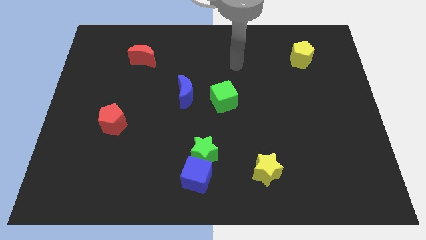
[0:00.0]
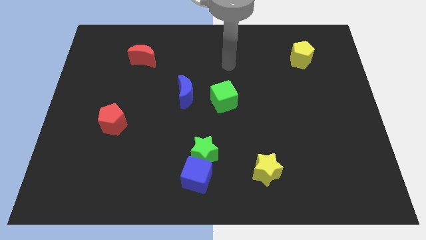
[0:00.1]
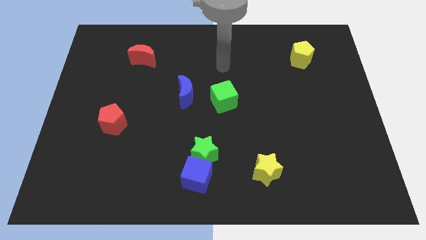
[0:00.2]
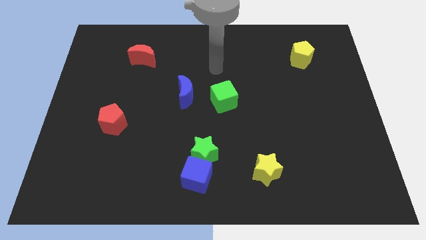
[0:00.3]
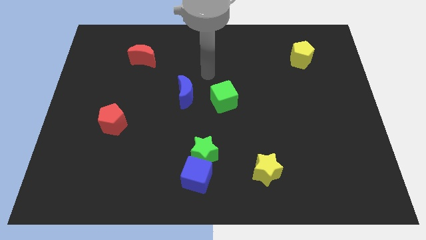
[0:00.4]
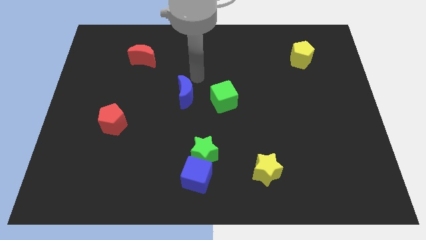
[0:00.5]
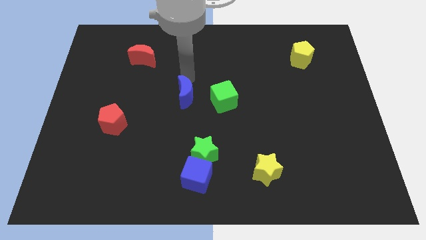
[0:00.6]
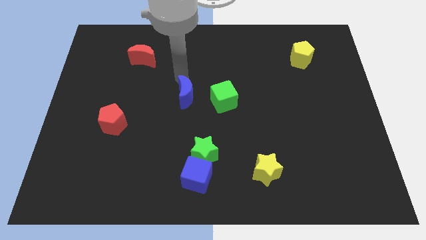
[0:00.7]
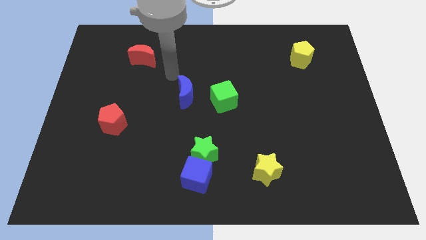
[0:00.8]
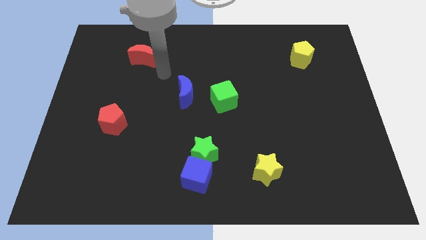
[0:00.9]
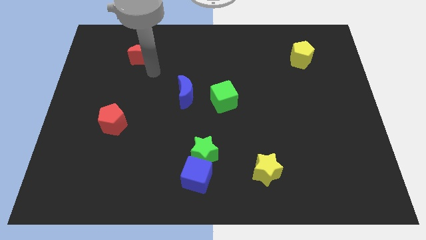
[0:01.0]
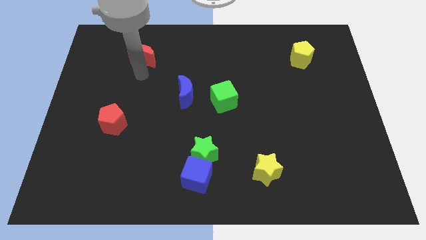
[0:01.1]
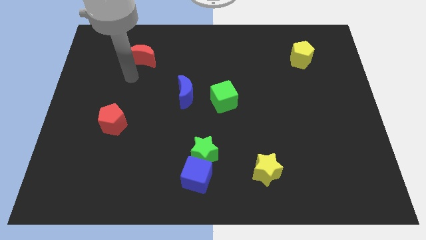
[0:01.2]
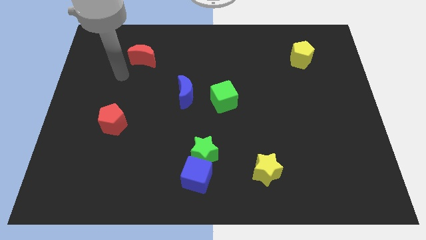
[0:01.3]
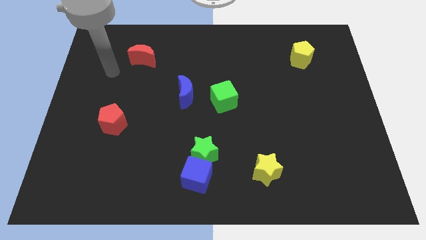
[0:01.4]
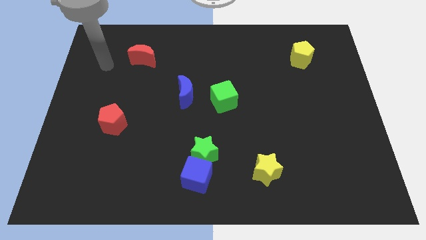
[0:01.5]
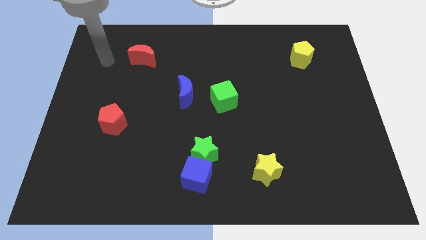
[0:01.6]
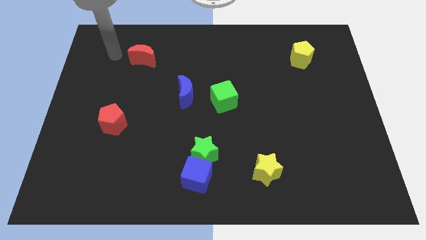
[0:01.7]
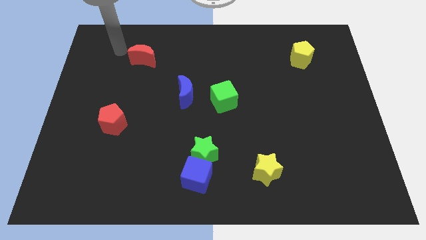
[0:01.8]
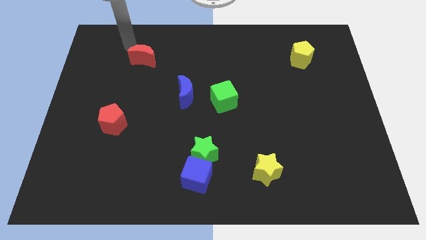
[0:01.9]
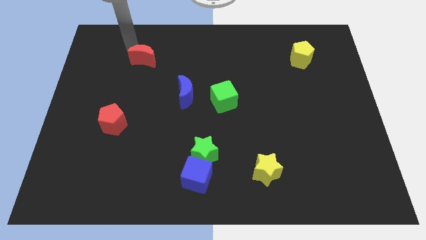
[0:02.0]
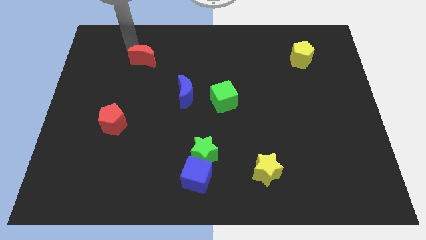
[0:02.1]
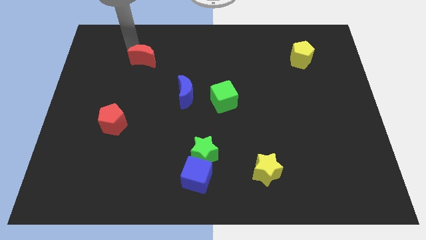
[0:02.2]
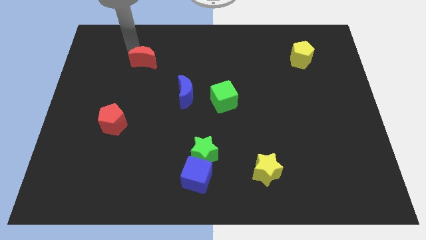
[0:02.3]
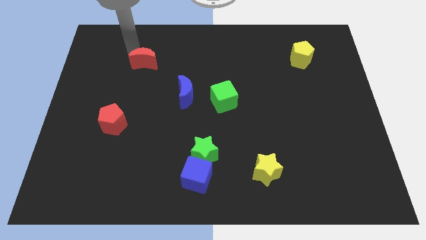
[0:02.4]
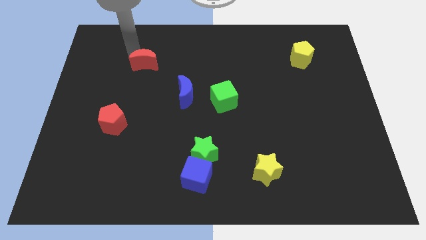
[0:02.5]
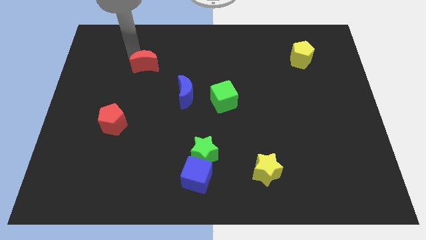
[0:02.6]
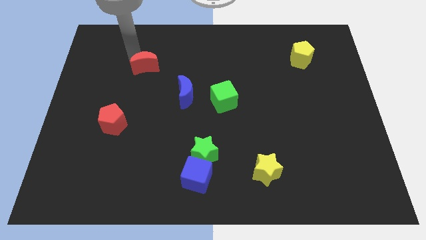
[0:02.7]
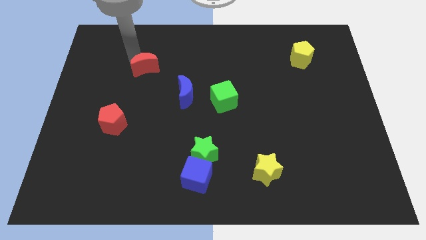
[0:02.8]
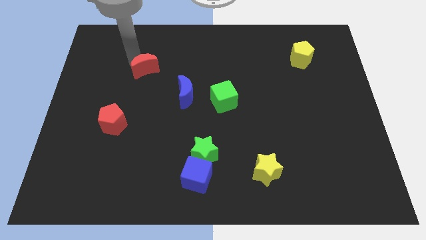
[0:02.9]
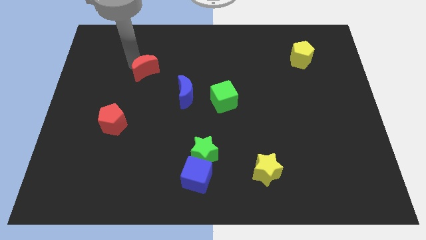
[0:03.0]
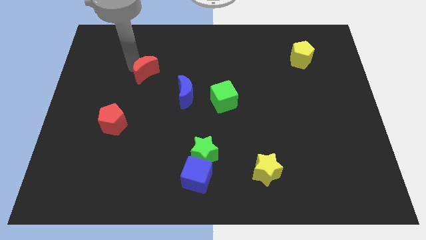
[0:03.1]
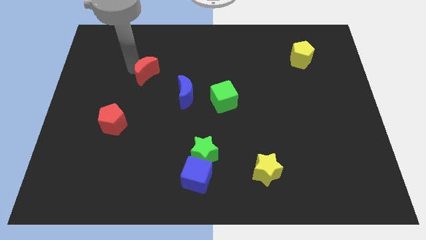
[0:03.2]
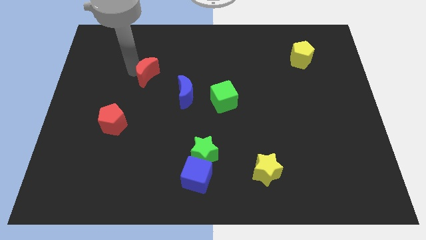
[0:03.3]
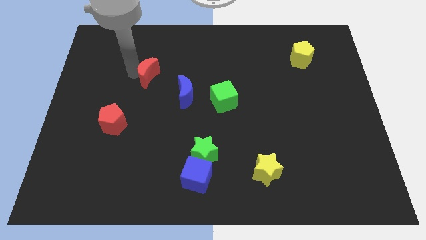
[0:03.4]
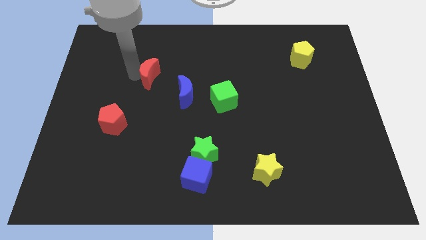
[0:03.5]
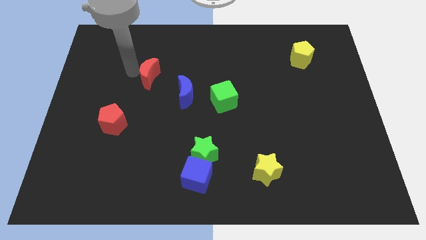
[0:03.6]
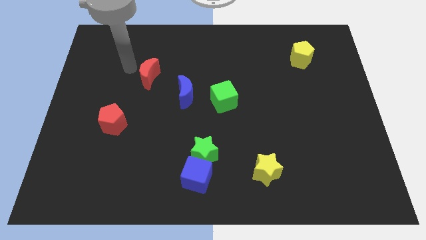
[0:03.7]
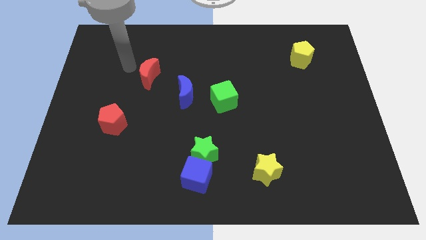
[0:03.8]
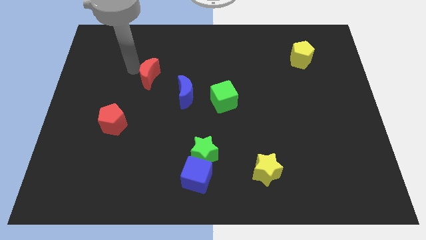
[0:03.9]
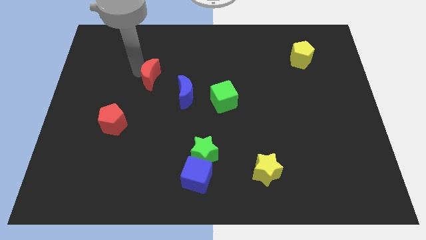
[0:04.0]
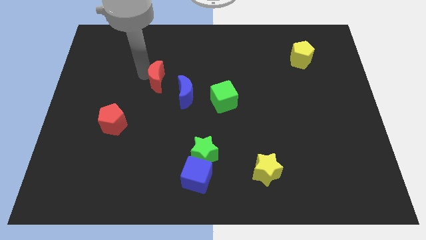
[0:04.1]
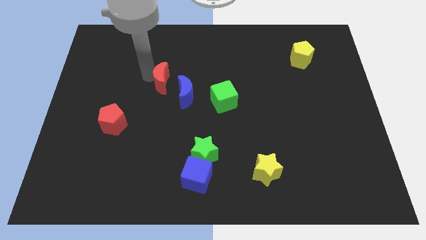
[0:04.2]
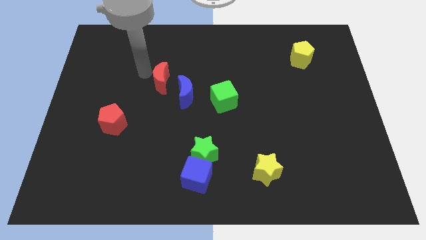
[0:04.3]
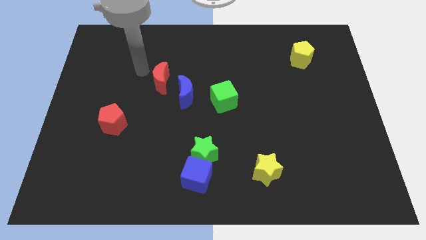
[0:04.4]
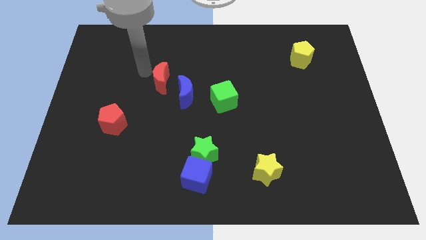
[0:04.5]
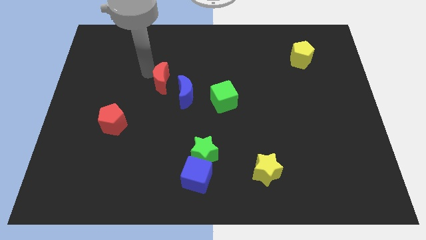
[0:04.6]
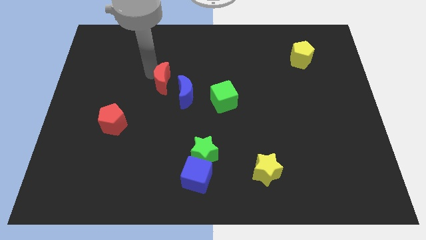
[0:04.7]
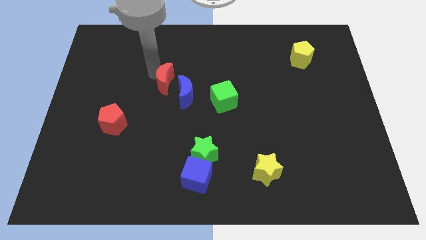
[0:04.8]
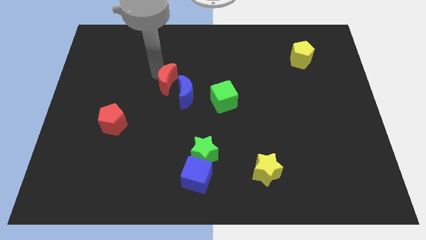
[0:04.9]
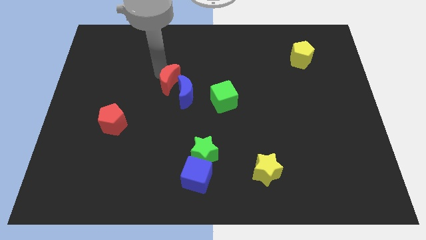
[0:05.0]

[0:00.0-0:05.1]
slide the red moon to the blue moon

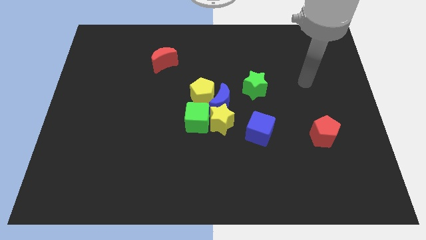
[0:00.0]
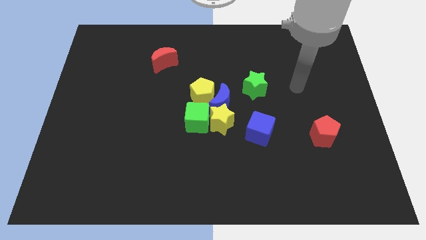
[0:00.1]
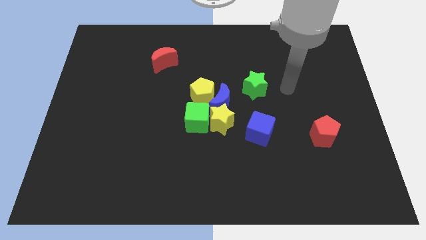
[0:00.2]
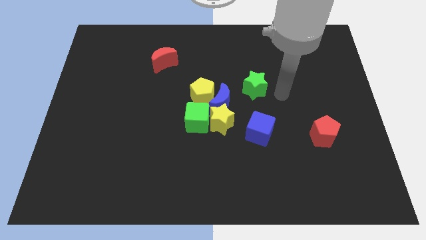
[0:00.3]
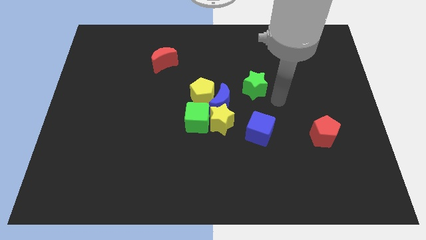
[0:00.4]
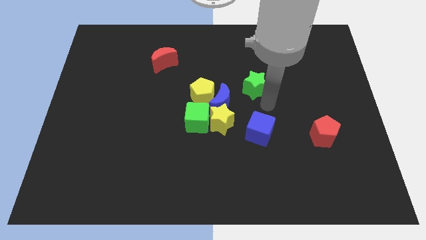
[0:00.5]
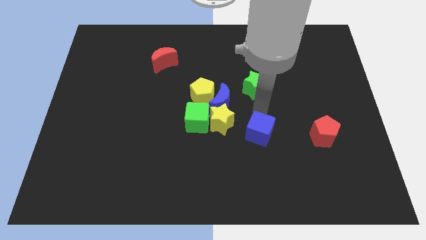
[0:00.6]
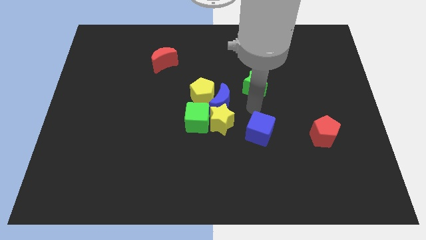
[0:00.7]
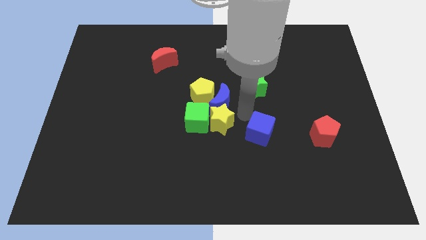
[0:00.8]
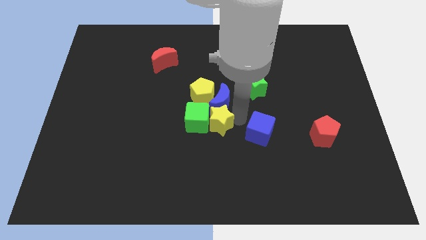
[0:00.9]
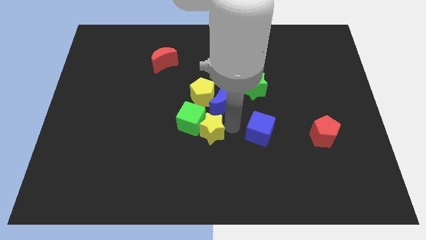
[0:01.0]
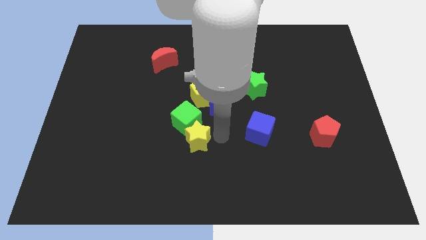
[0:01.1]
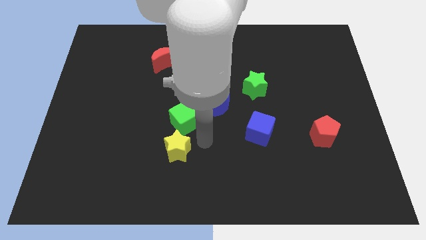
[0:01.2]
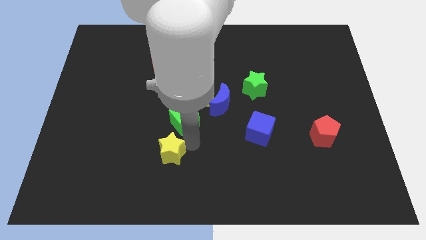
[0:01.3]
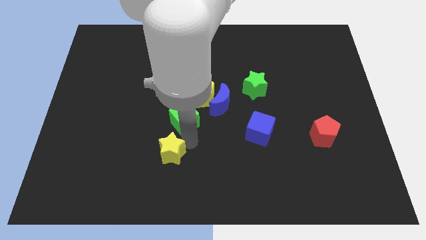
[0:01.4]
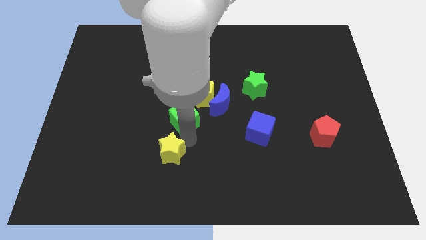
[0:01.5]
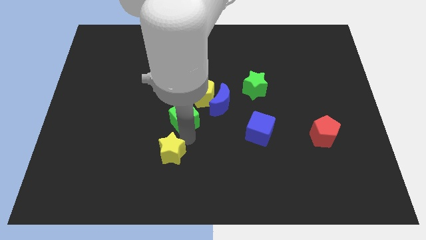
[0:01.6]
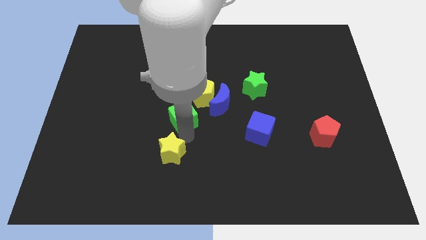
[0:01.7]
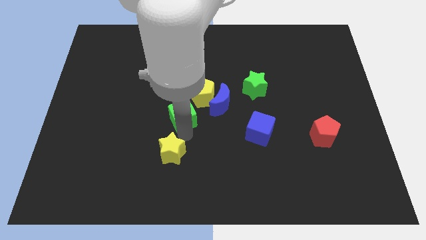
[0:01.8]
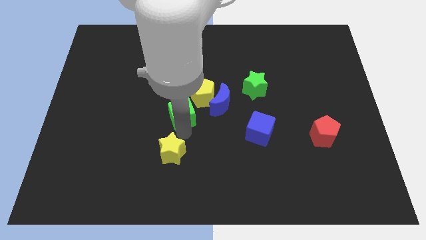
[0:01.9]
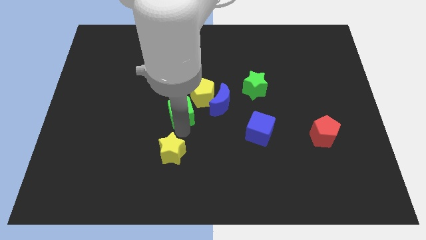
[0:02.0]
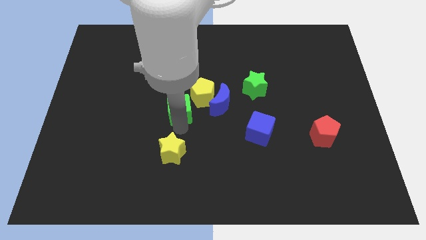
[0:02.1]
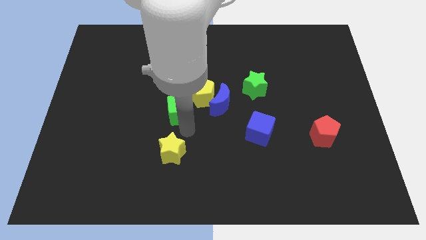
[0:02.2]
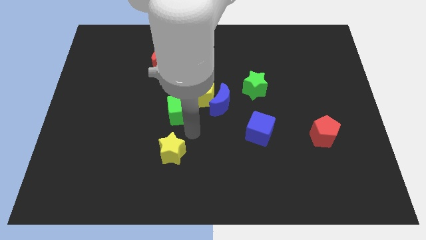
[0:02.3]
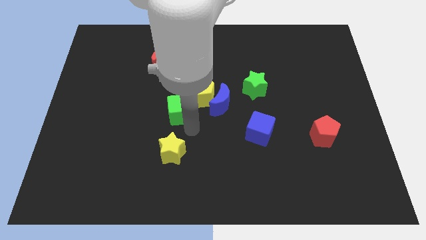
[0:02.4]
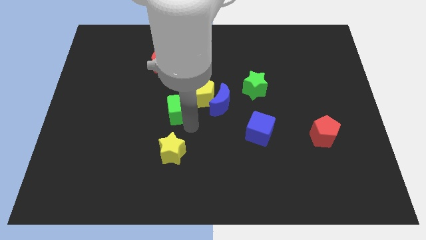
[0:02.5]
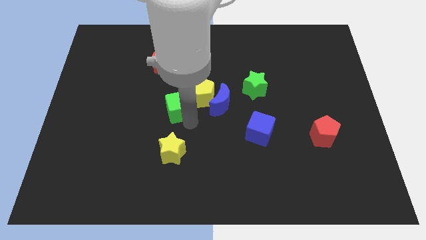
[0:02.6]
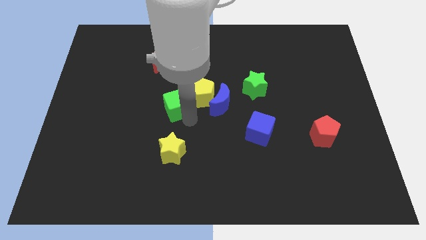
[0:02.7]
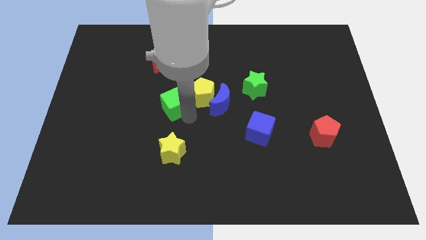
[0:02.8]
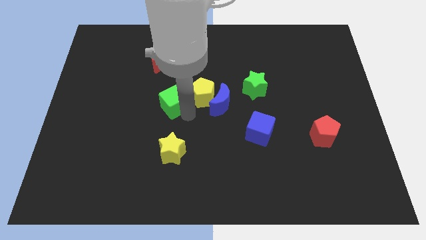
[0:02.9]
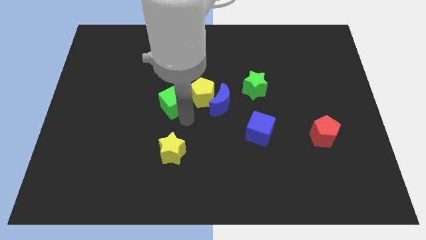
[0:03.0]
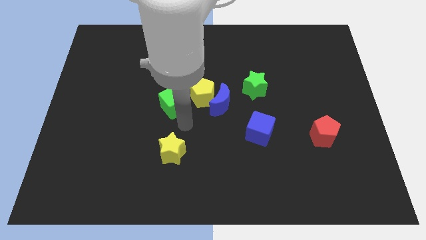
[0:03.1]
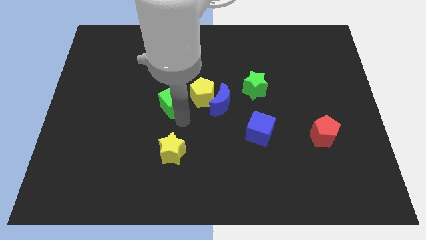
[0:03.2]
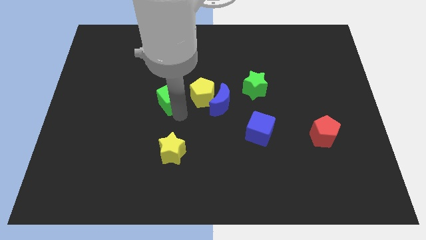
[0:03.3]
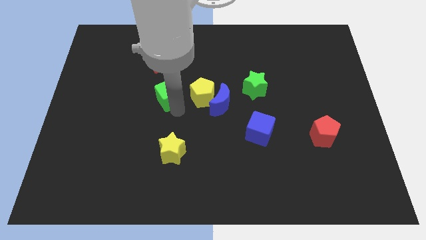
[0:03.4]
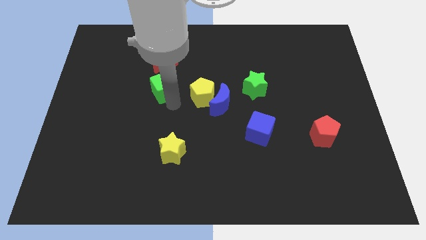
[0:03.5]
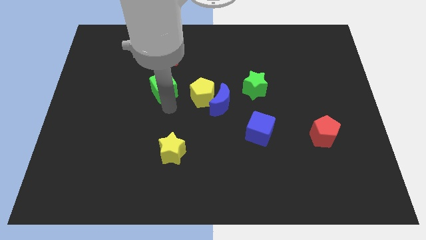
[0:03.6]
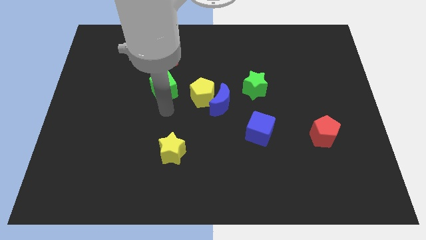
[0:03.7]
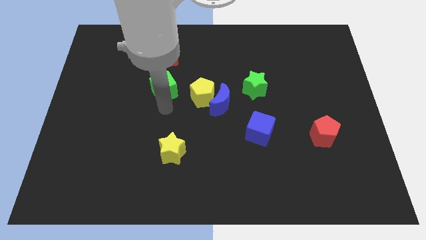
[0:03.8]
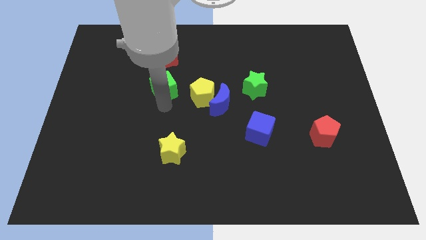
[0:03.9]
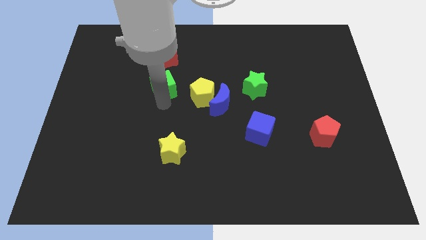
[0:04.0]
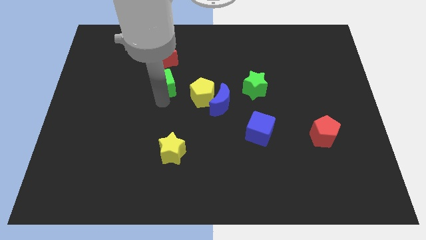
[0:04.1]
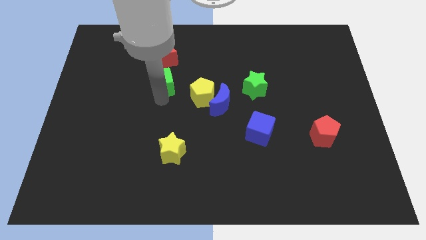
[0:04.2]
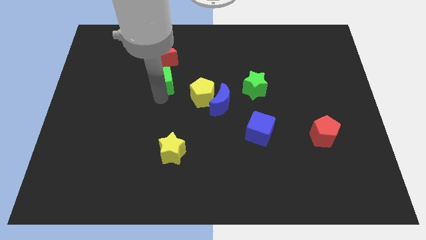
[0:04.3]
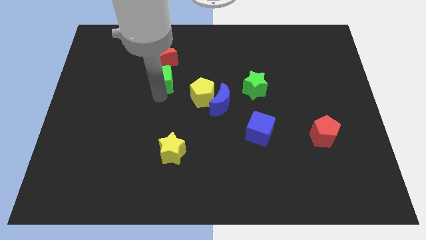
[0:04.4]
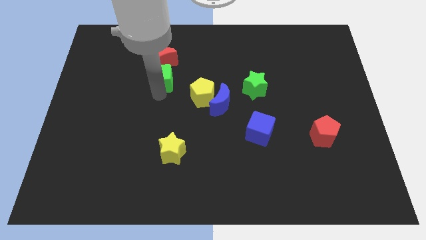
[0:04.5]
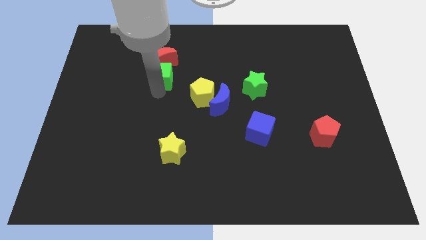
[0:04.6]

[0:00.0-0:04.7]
put the green cube close to the red moon
